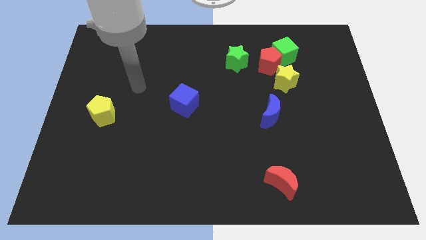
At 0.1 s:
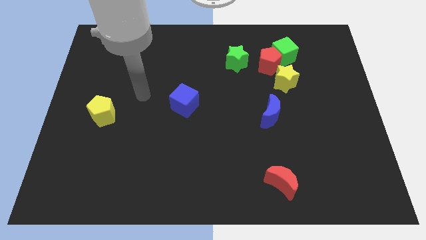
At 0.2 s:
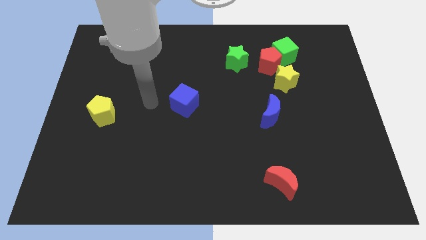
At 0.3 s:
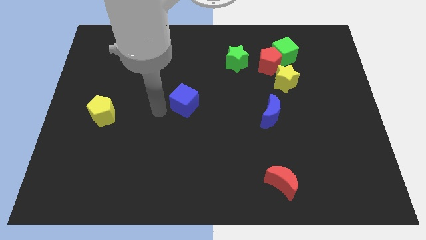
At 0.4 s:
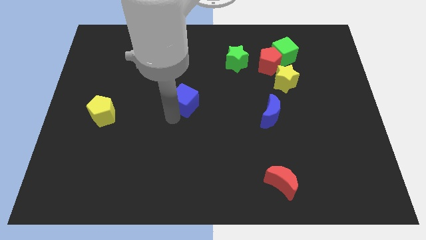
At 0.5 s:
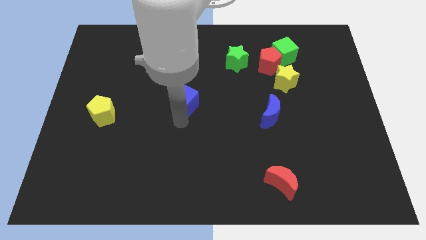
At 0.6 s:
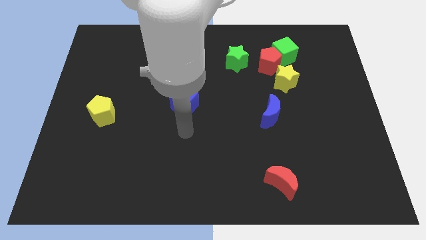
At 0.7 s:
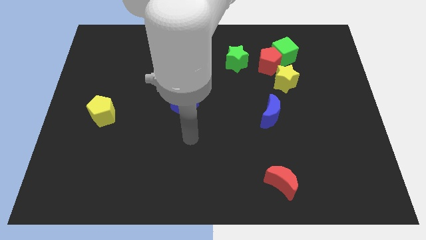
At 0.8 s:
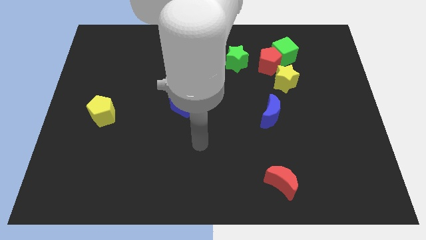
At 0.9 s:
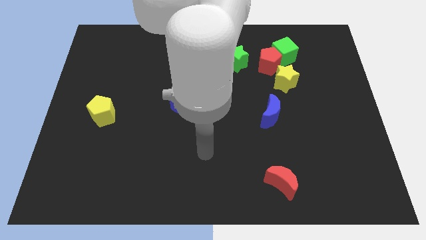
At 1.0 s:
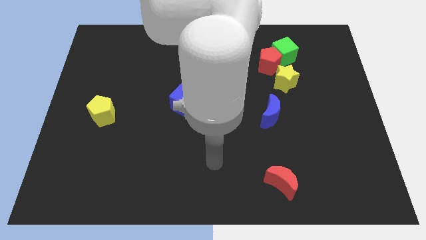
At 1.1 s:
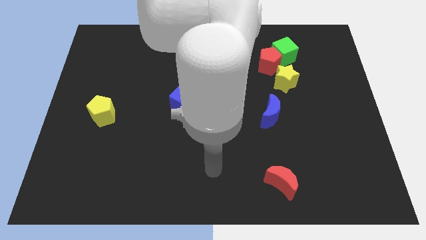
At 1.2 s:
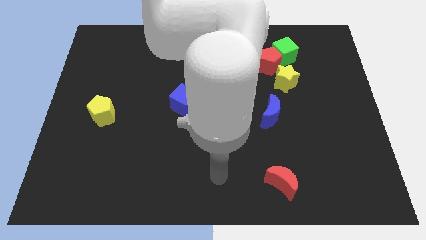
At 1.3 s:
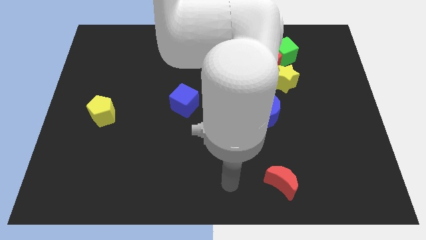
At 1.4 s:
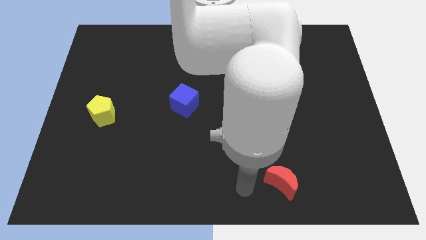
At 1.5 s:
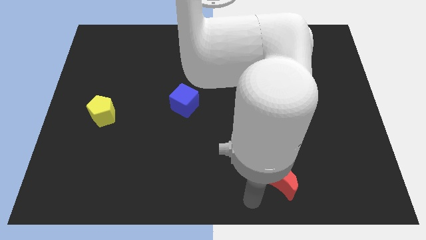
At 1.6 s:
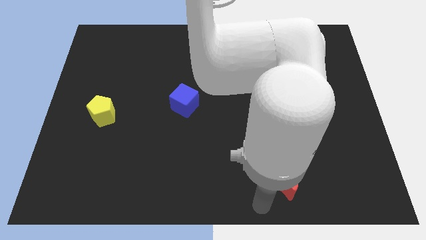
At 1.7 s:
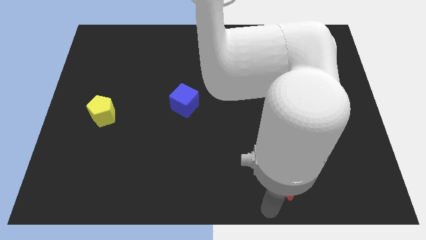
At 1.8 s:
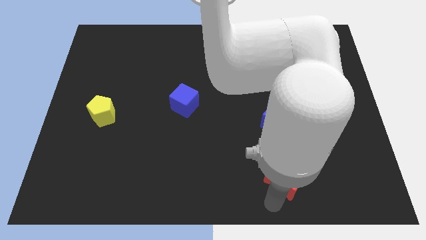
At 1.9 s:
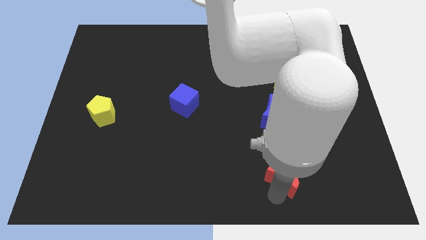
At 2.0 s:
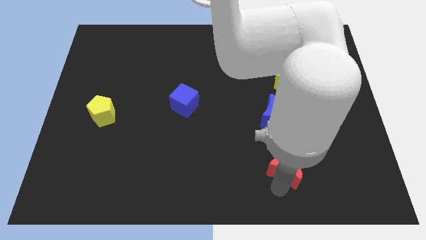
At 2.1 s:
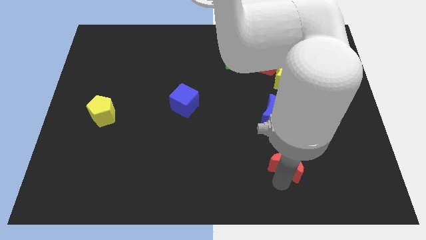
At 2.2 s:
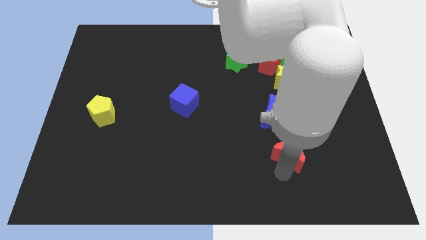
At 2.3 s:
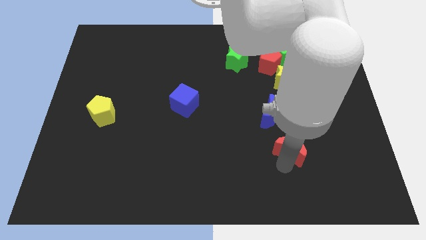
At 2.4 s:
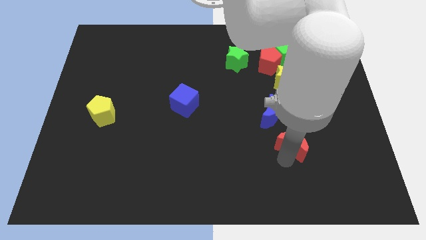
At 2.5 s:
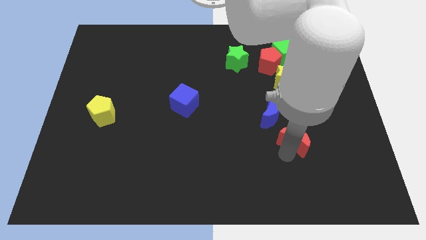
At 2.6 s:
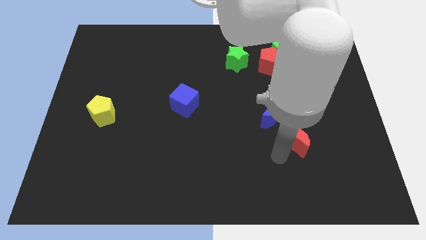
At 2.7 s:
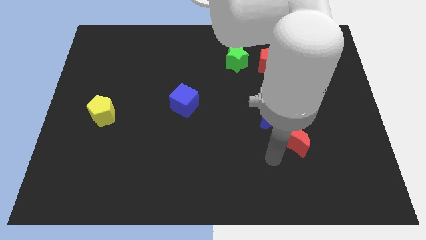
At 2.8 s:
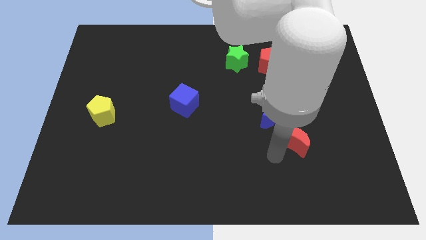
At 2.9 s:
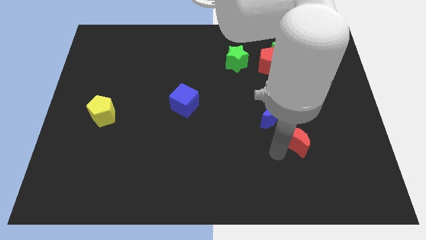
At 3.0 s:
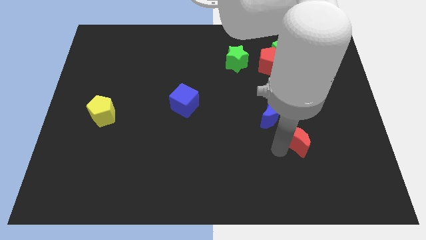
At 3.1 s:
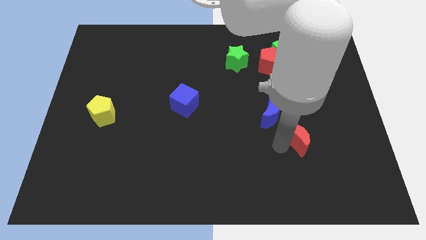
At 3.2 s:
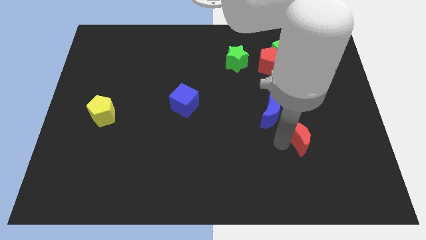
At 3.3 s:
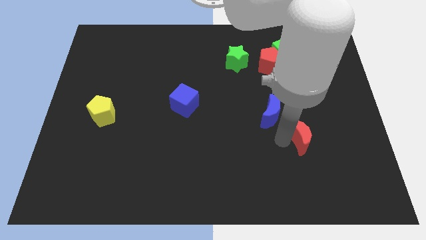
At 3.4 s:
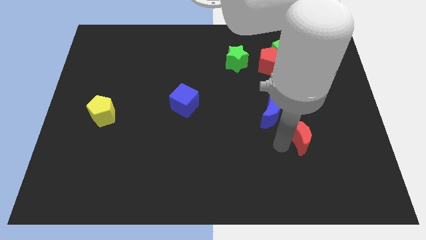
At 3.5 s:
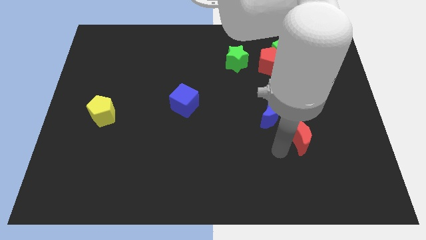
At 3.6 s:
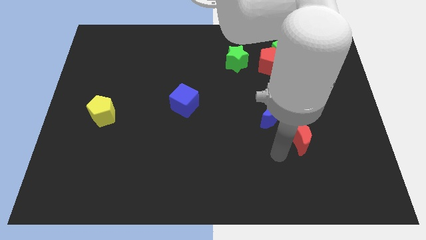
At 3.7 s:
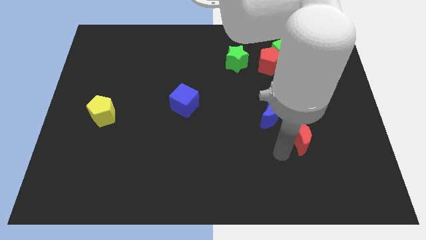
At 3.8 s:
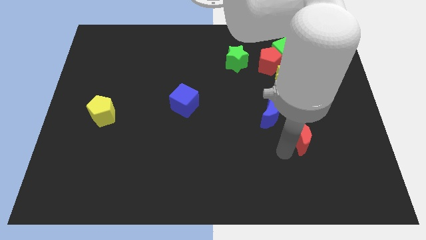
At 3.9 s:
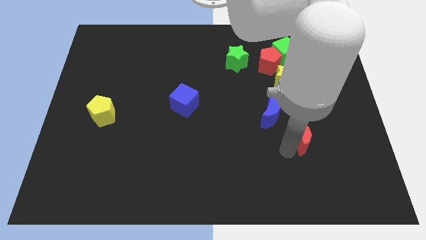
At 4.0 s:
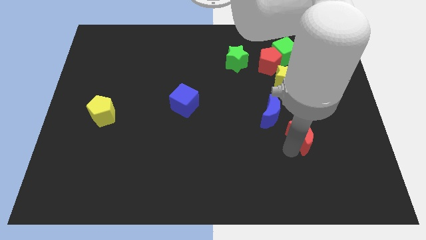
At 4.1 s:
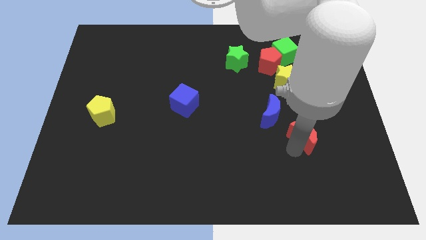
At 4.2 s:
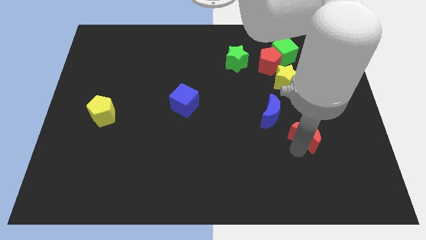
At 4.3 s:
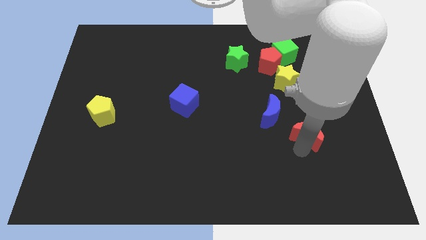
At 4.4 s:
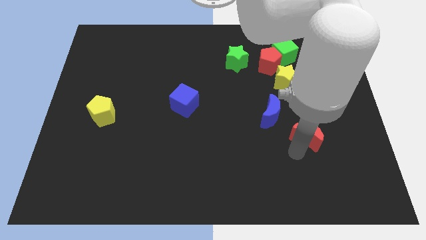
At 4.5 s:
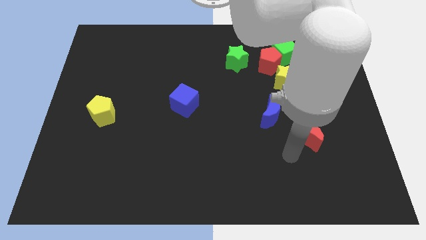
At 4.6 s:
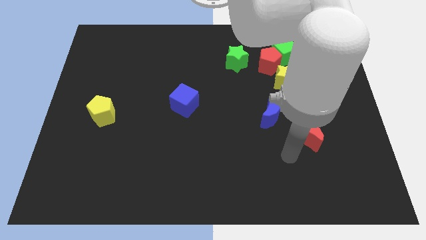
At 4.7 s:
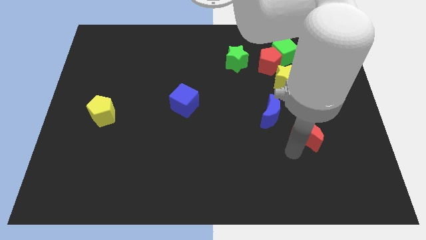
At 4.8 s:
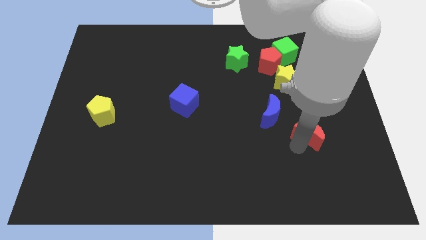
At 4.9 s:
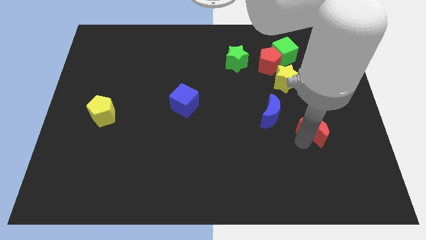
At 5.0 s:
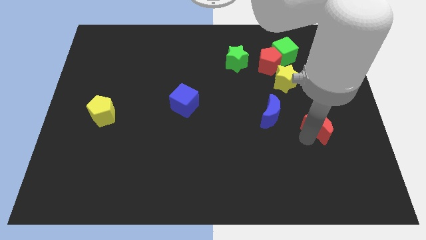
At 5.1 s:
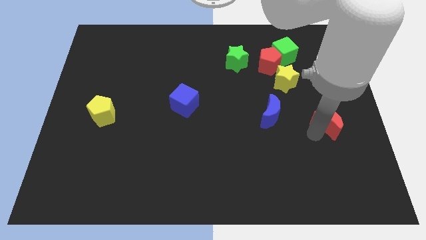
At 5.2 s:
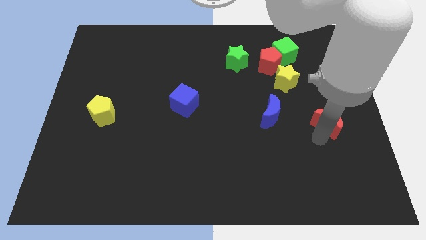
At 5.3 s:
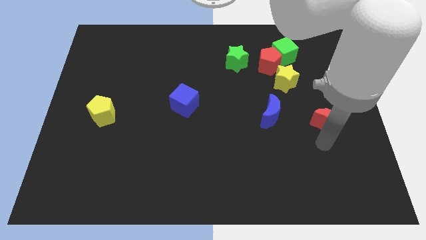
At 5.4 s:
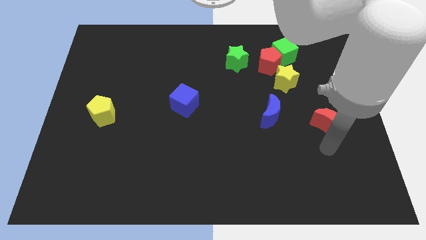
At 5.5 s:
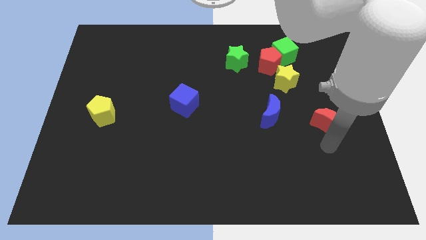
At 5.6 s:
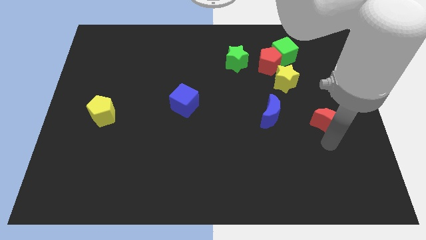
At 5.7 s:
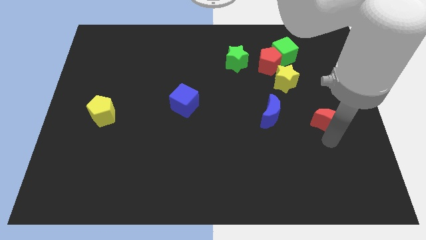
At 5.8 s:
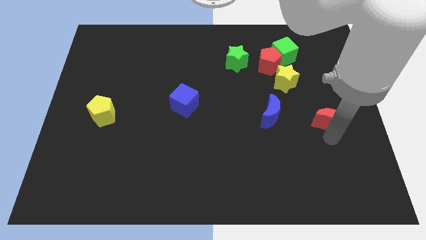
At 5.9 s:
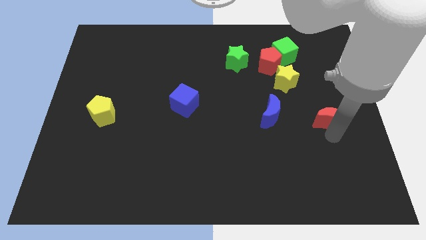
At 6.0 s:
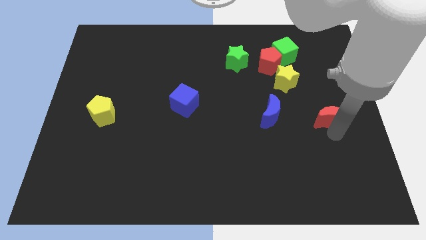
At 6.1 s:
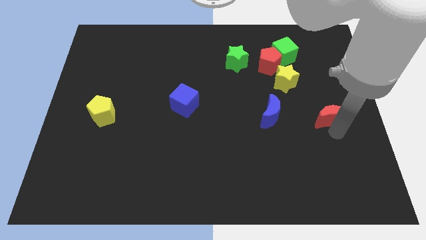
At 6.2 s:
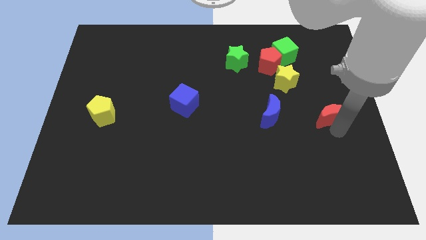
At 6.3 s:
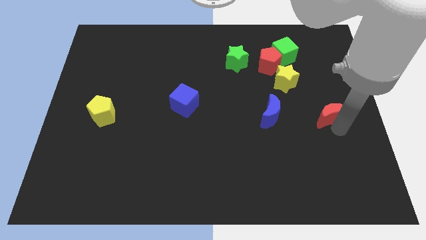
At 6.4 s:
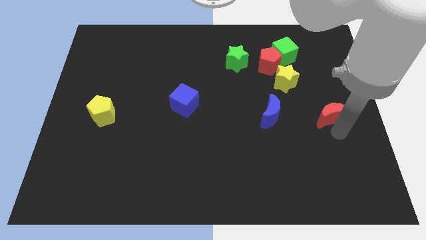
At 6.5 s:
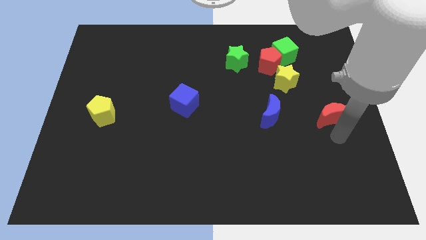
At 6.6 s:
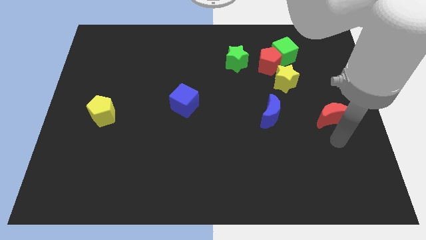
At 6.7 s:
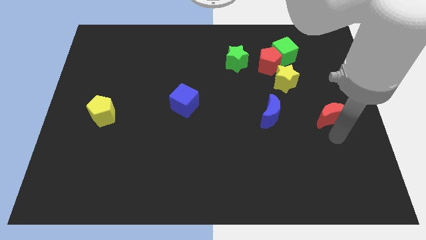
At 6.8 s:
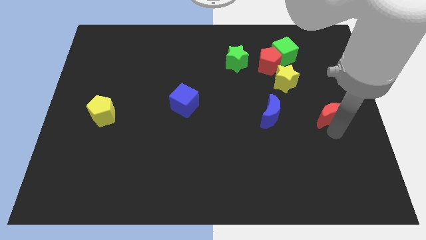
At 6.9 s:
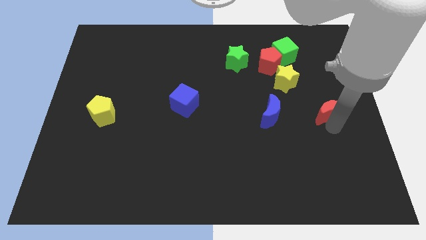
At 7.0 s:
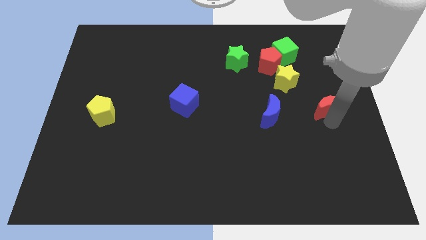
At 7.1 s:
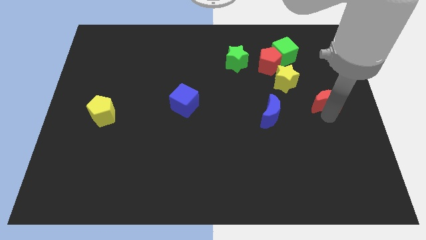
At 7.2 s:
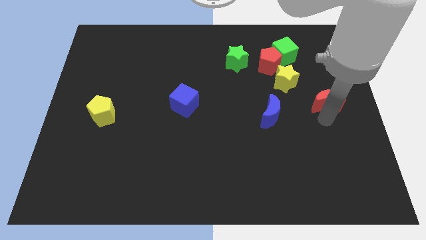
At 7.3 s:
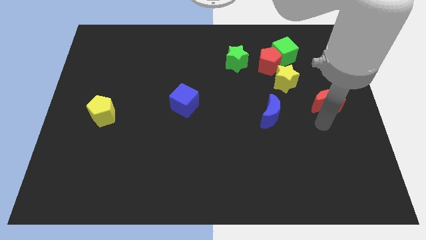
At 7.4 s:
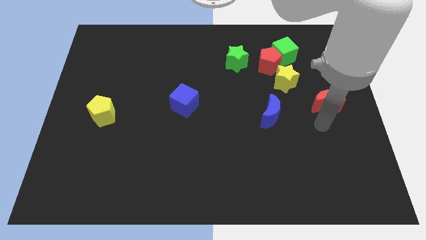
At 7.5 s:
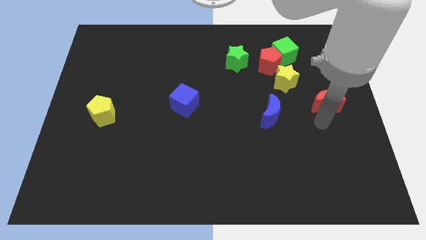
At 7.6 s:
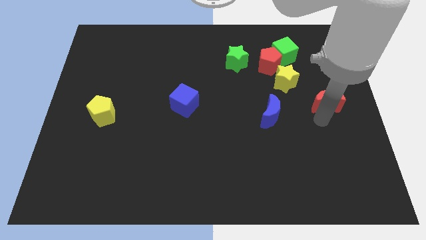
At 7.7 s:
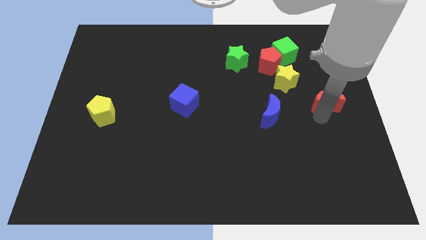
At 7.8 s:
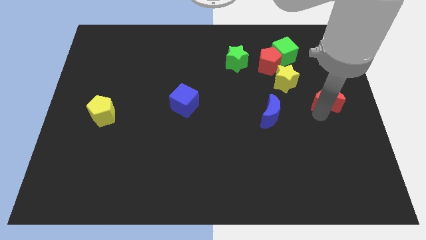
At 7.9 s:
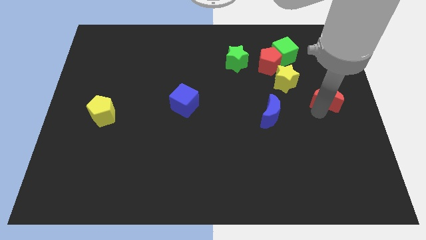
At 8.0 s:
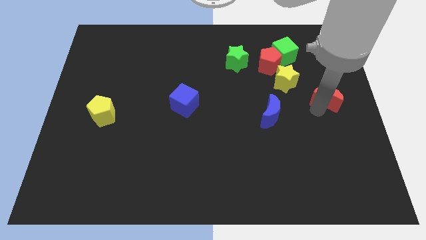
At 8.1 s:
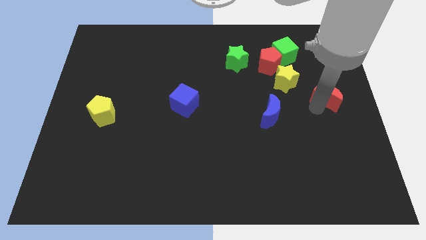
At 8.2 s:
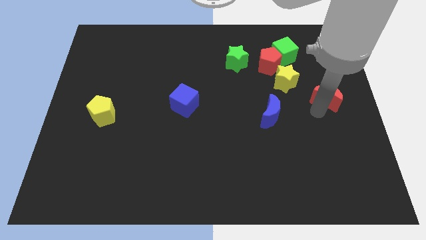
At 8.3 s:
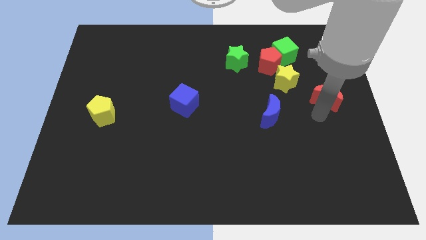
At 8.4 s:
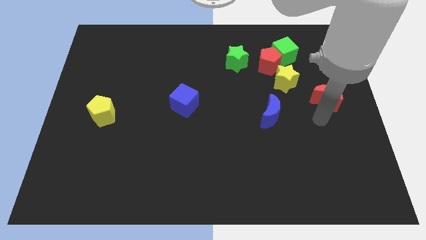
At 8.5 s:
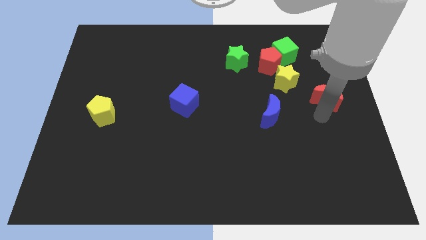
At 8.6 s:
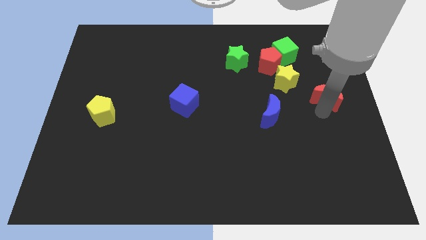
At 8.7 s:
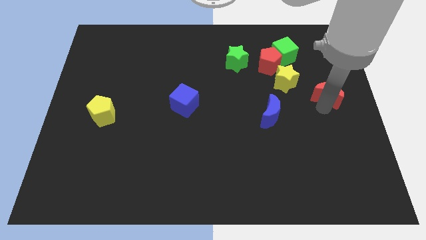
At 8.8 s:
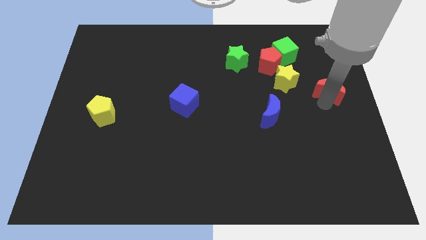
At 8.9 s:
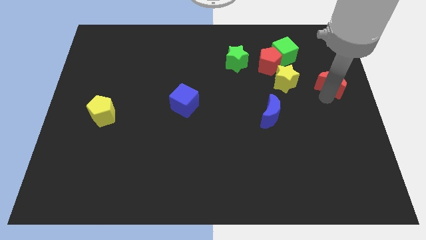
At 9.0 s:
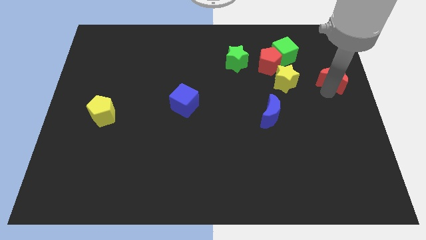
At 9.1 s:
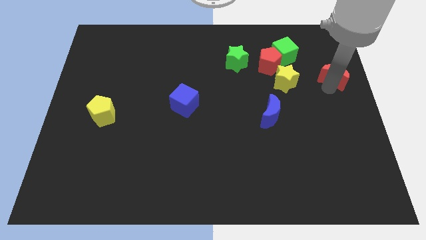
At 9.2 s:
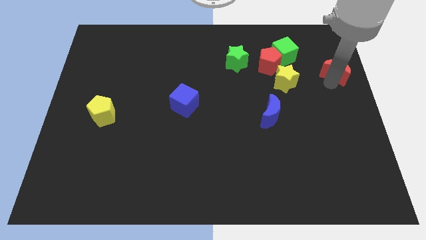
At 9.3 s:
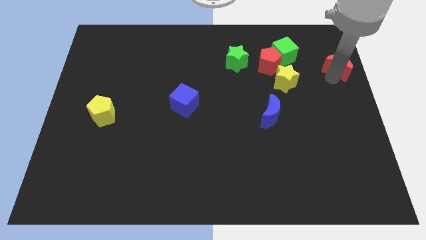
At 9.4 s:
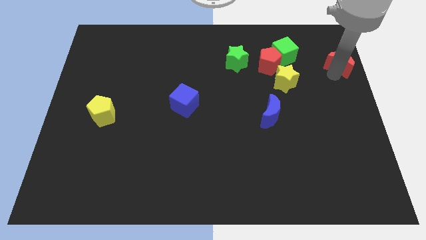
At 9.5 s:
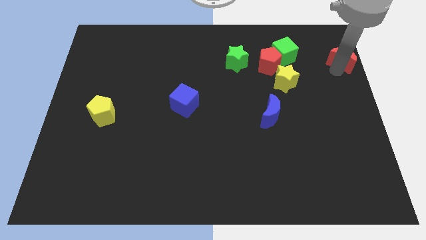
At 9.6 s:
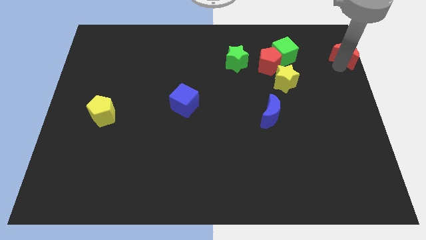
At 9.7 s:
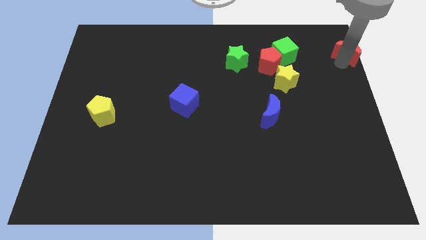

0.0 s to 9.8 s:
put the red moon to the top right
